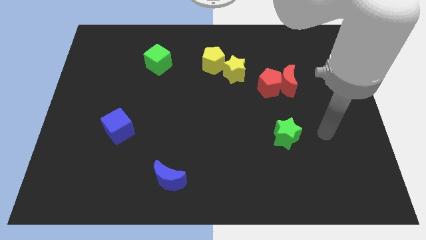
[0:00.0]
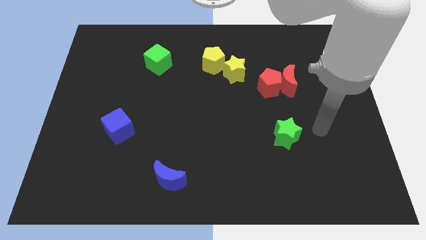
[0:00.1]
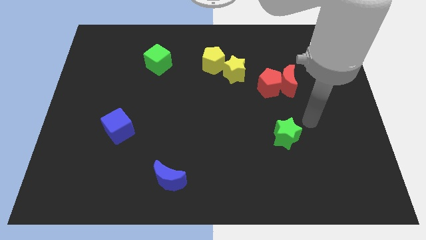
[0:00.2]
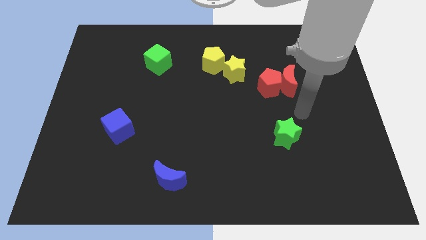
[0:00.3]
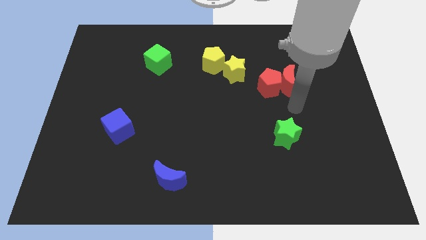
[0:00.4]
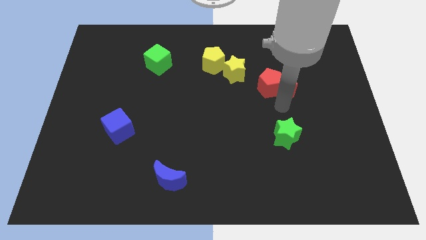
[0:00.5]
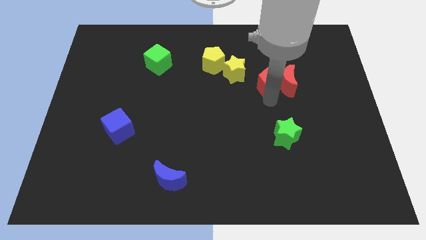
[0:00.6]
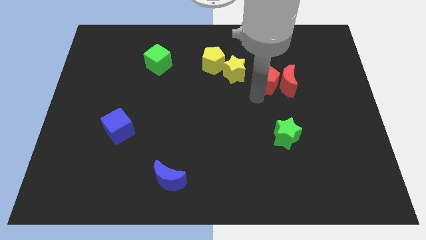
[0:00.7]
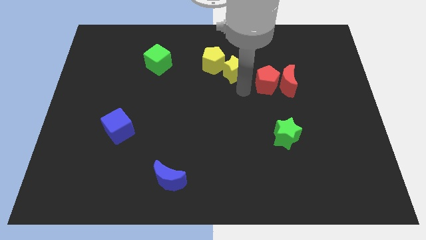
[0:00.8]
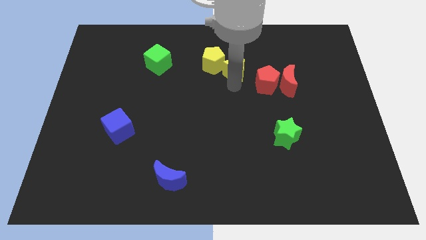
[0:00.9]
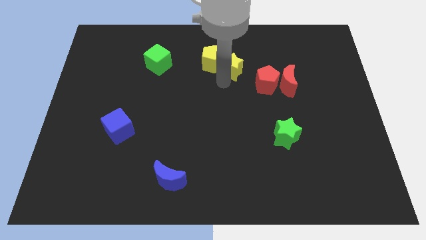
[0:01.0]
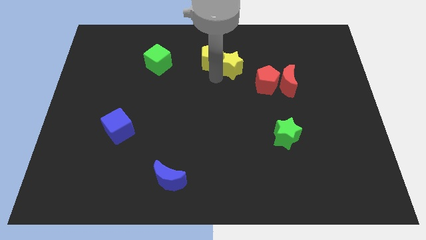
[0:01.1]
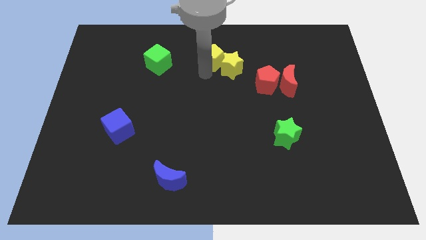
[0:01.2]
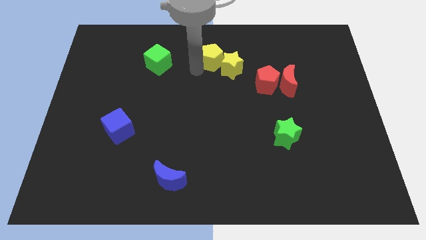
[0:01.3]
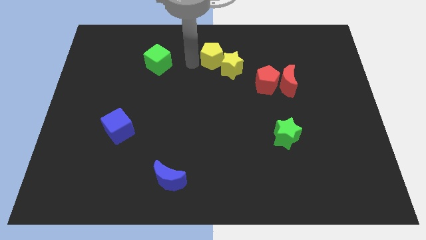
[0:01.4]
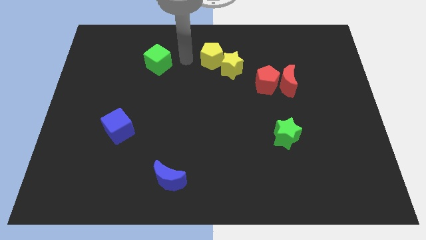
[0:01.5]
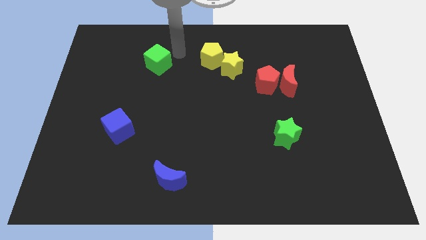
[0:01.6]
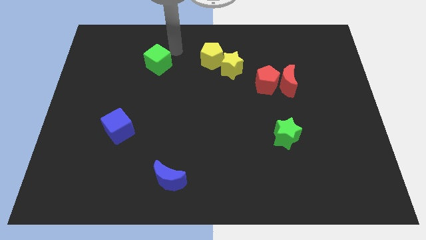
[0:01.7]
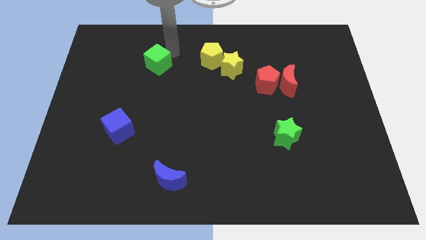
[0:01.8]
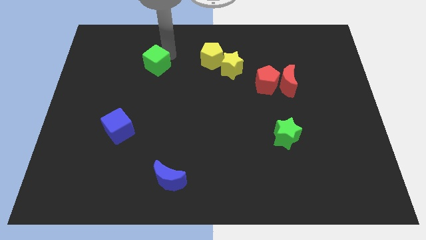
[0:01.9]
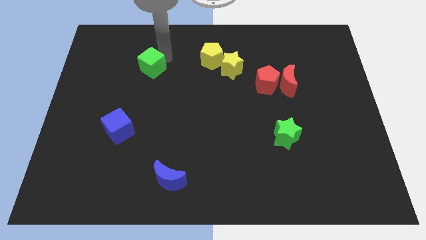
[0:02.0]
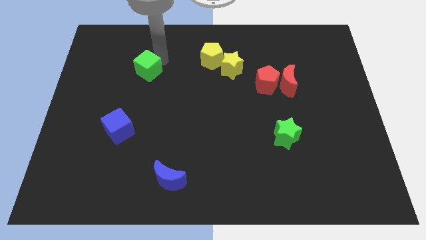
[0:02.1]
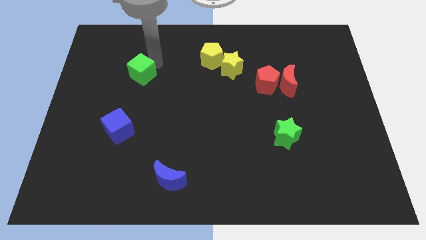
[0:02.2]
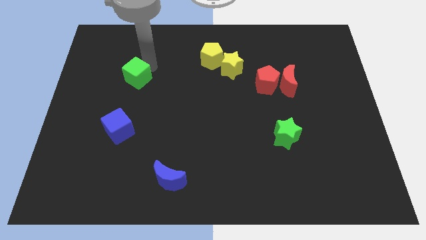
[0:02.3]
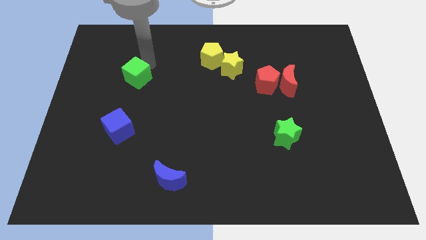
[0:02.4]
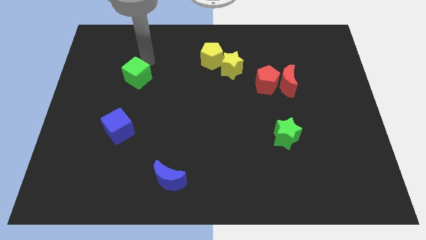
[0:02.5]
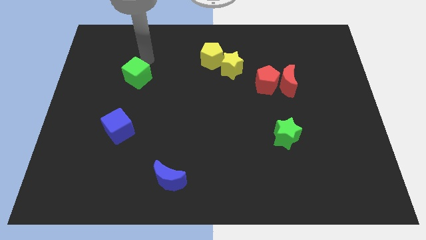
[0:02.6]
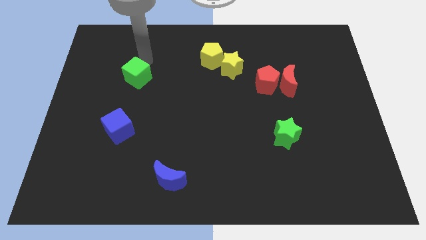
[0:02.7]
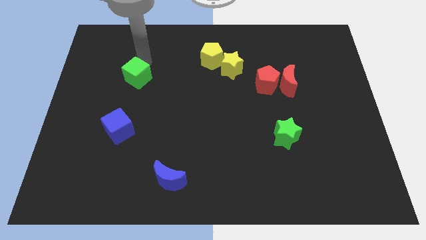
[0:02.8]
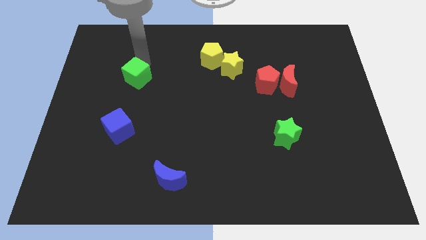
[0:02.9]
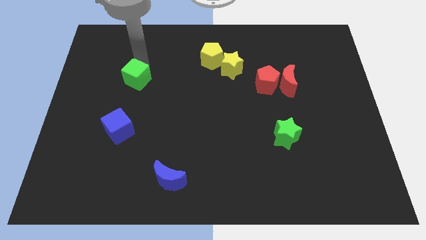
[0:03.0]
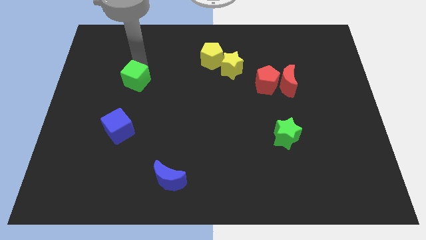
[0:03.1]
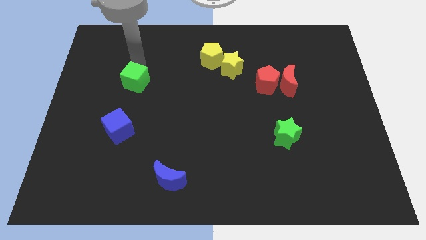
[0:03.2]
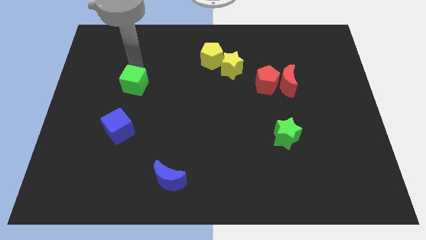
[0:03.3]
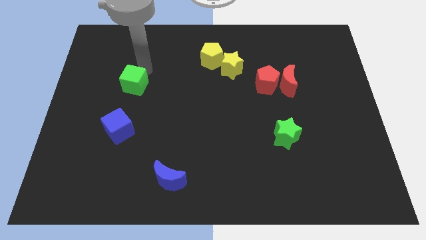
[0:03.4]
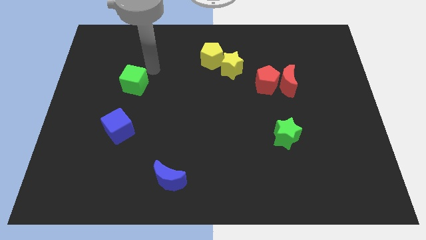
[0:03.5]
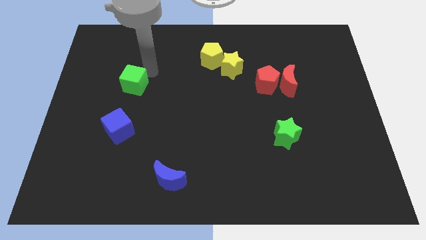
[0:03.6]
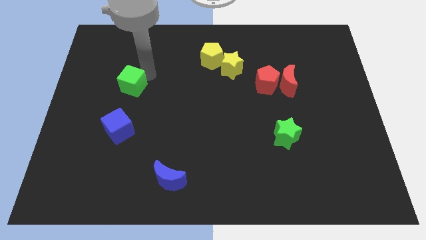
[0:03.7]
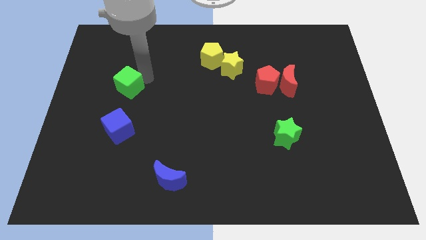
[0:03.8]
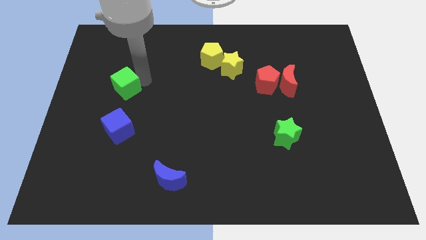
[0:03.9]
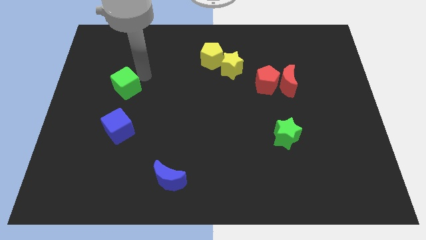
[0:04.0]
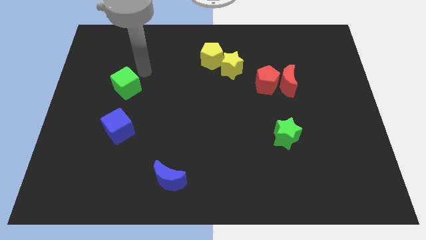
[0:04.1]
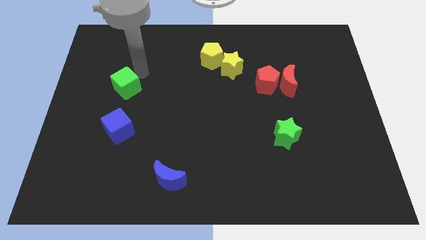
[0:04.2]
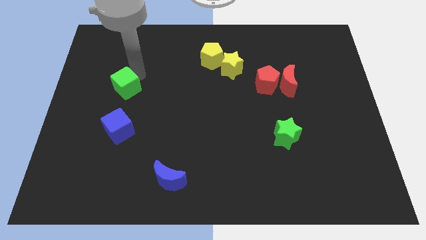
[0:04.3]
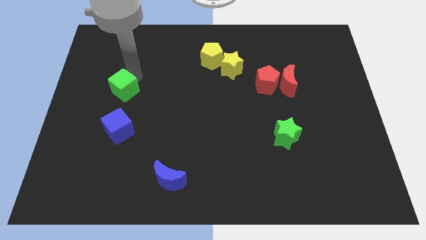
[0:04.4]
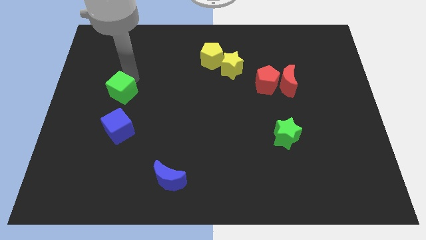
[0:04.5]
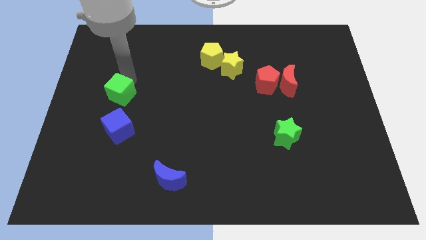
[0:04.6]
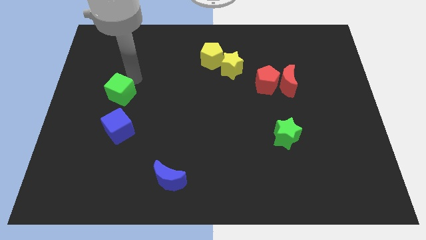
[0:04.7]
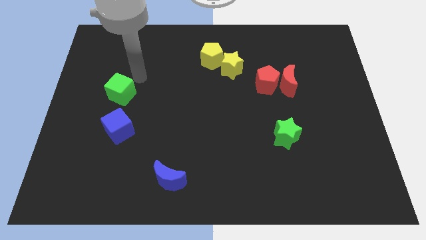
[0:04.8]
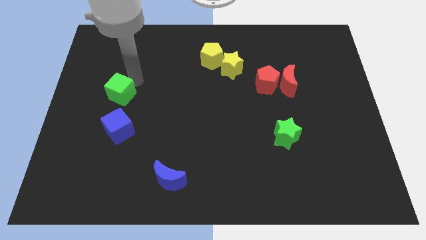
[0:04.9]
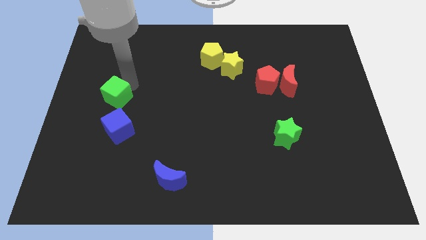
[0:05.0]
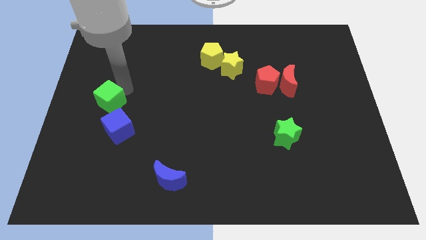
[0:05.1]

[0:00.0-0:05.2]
slide the green cube to the top left side of the blue cube
